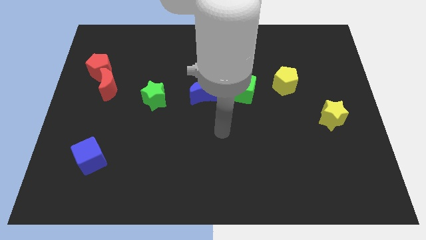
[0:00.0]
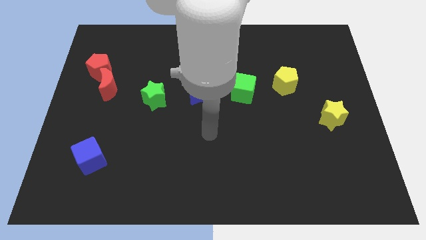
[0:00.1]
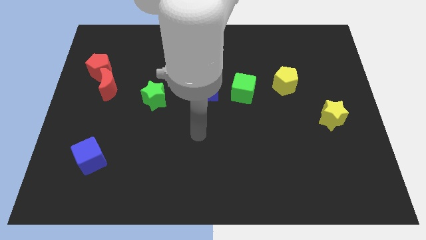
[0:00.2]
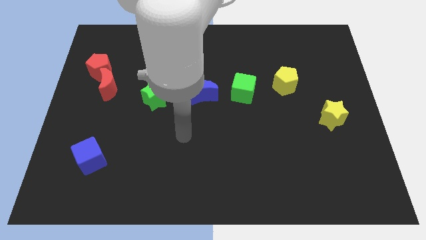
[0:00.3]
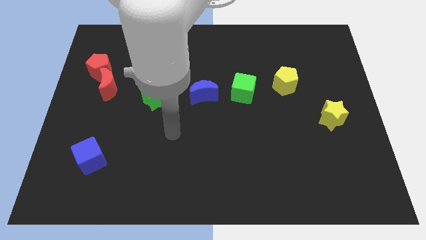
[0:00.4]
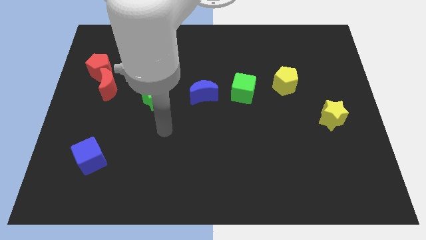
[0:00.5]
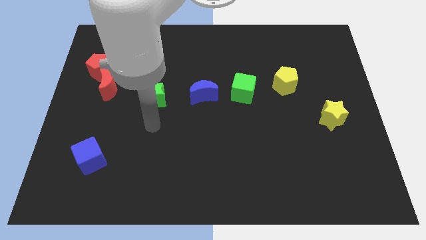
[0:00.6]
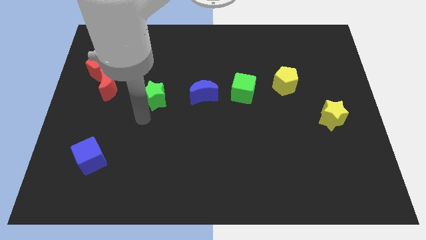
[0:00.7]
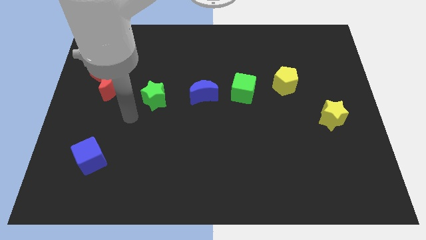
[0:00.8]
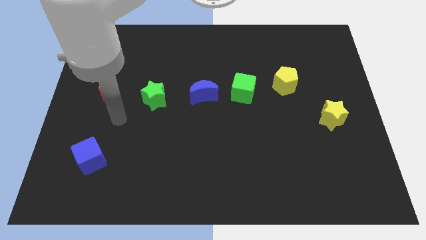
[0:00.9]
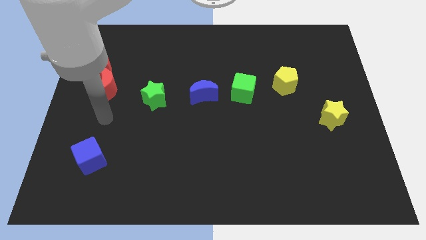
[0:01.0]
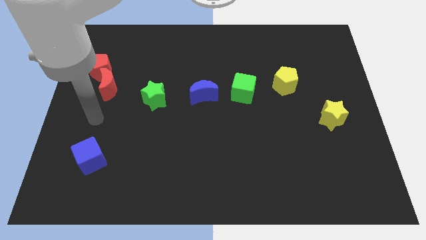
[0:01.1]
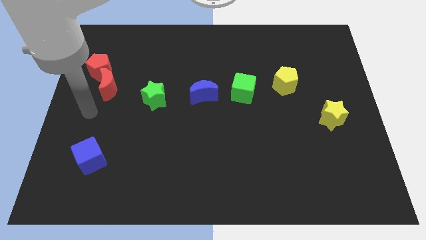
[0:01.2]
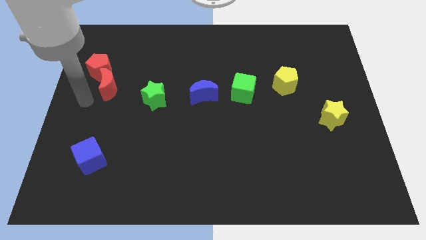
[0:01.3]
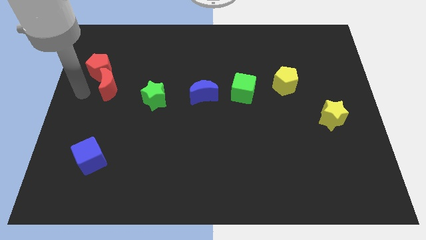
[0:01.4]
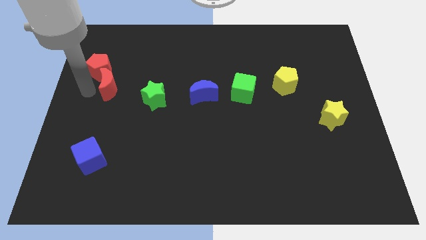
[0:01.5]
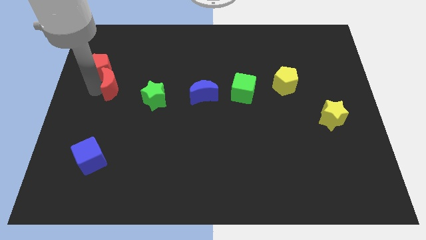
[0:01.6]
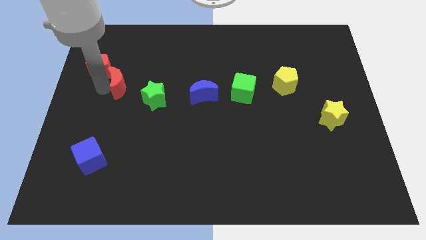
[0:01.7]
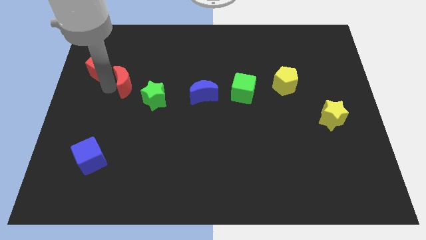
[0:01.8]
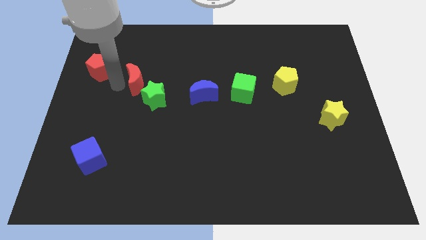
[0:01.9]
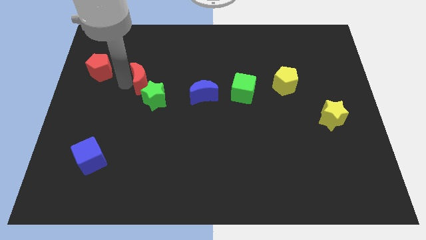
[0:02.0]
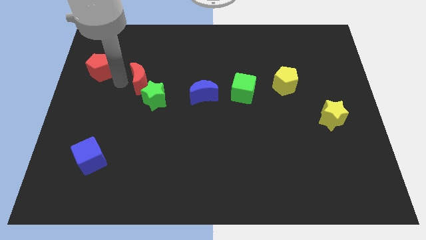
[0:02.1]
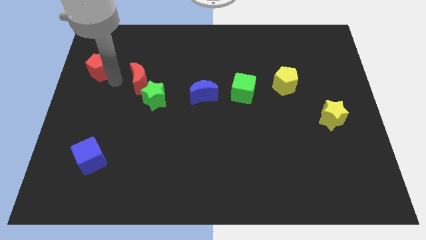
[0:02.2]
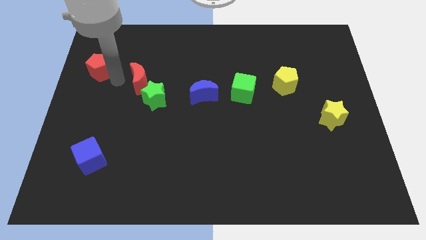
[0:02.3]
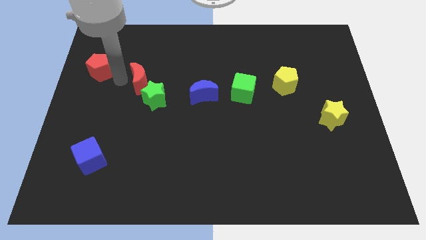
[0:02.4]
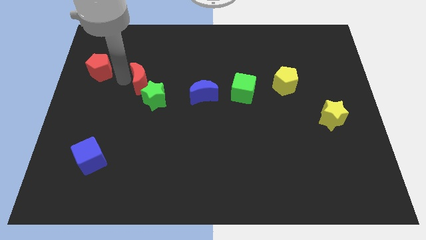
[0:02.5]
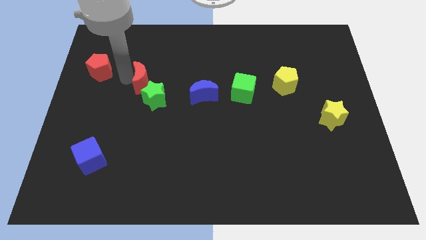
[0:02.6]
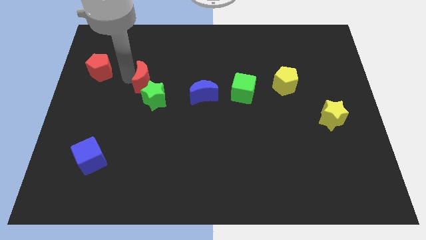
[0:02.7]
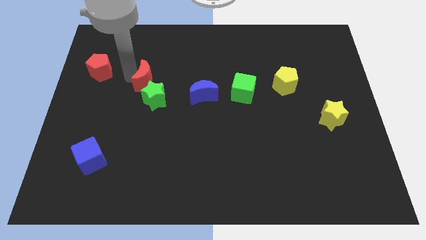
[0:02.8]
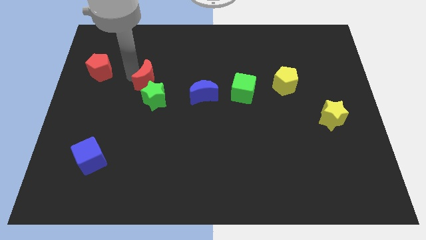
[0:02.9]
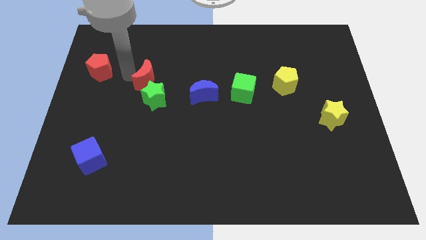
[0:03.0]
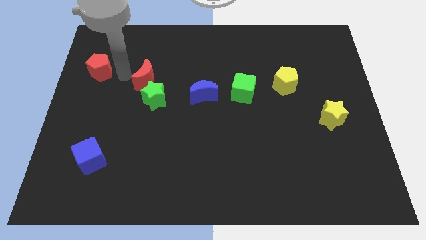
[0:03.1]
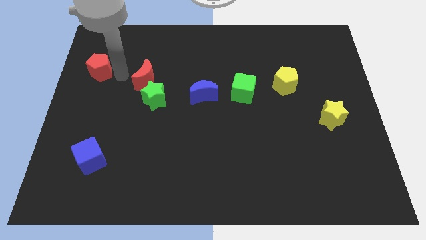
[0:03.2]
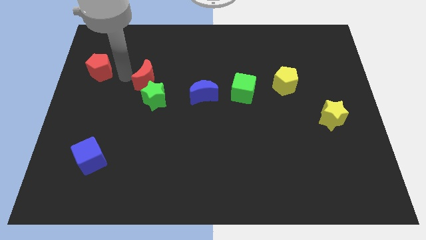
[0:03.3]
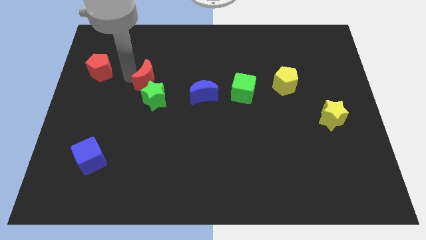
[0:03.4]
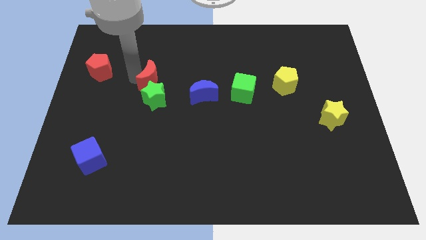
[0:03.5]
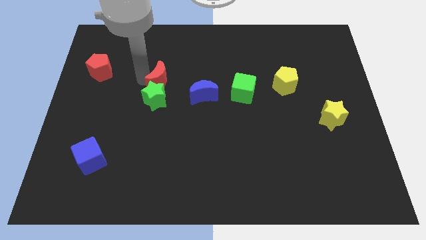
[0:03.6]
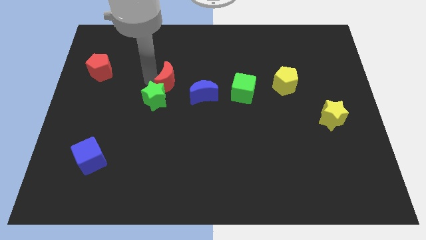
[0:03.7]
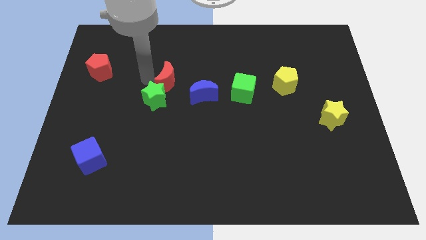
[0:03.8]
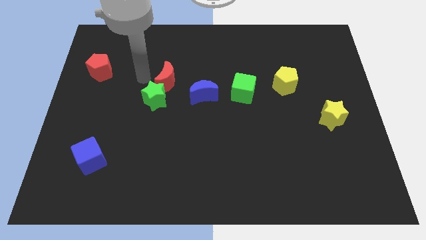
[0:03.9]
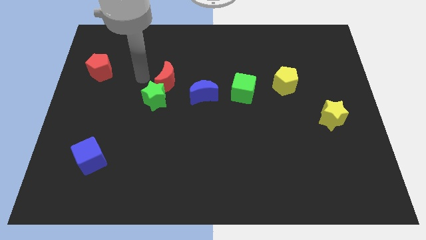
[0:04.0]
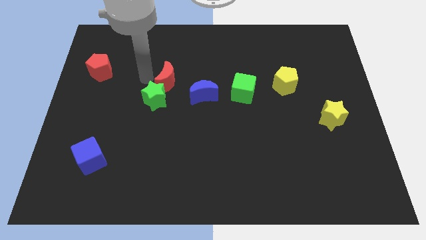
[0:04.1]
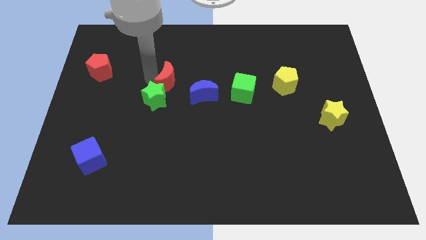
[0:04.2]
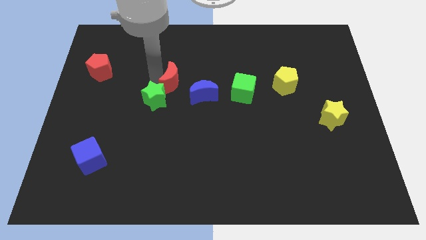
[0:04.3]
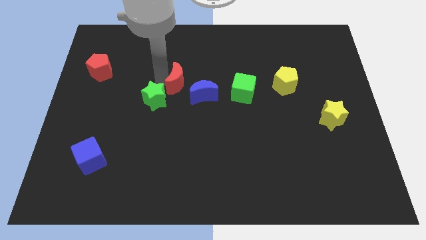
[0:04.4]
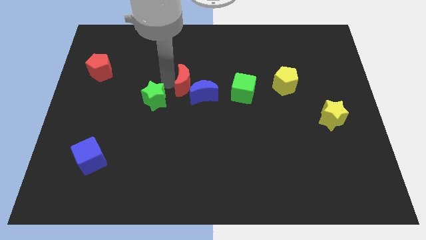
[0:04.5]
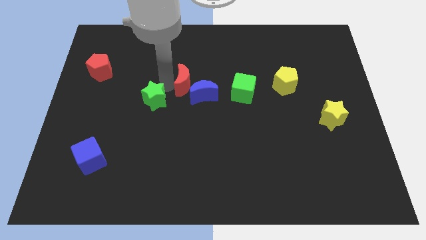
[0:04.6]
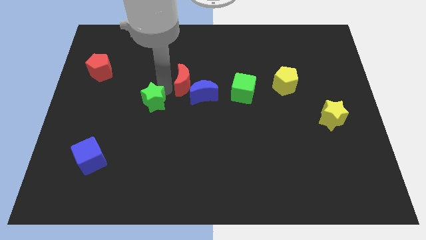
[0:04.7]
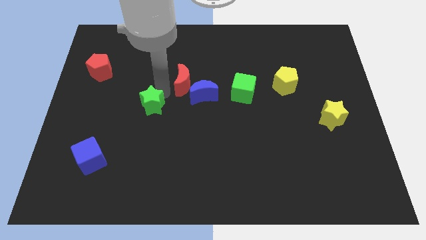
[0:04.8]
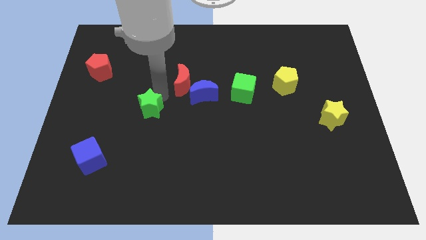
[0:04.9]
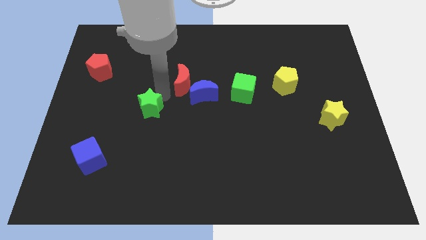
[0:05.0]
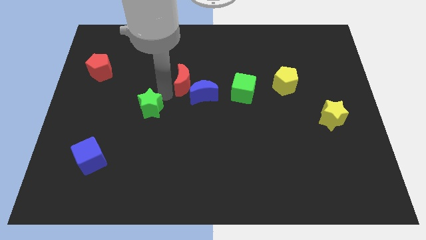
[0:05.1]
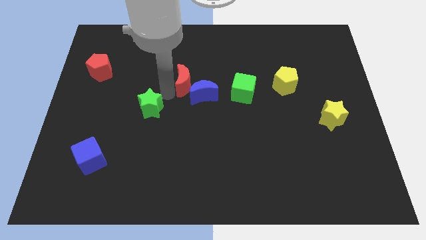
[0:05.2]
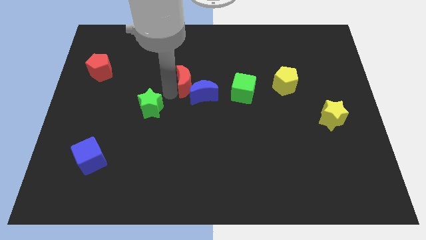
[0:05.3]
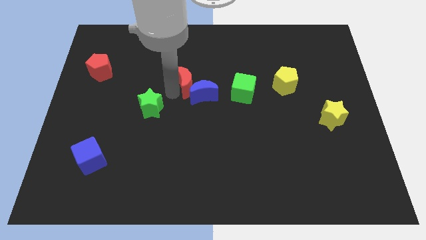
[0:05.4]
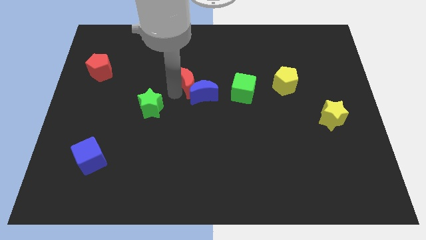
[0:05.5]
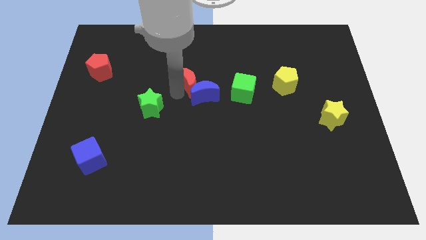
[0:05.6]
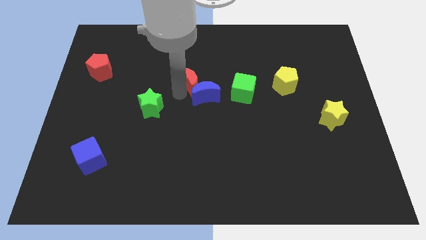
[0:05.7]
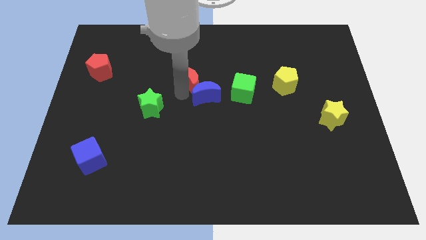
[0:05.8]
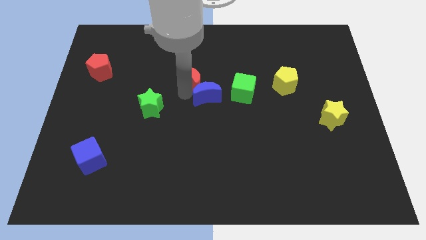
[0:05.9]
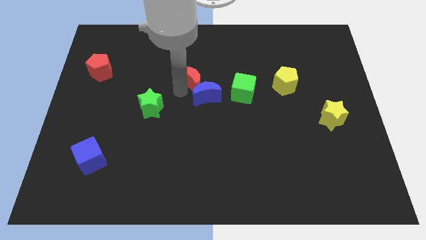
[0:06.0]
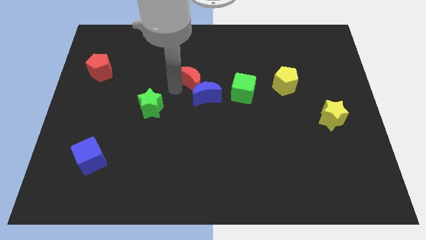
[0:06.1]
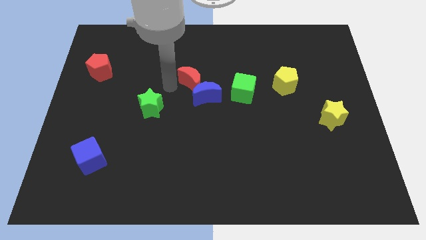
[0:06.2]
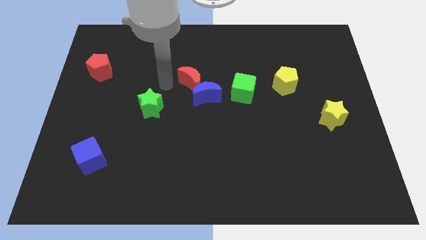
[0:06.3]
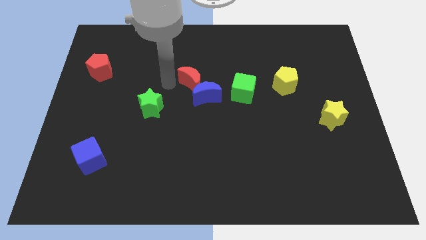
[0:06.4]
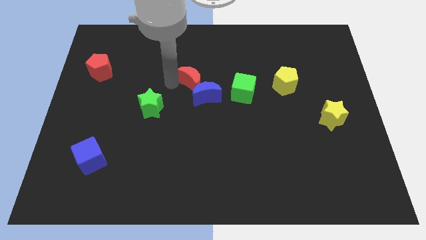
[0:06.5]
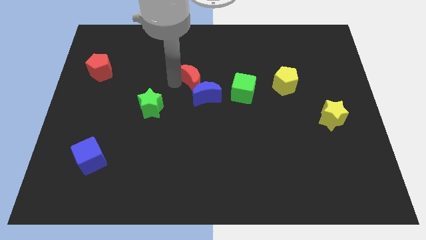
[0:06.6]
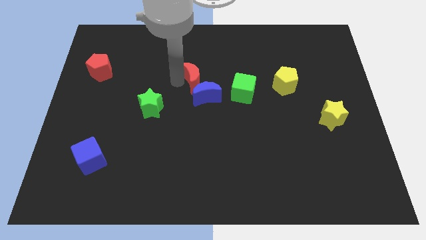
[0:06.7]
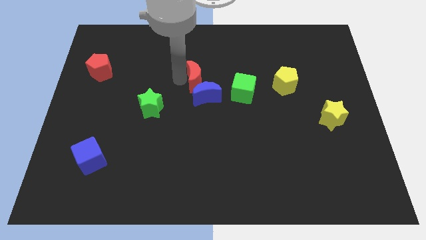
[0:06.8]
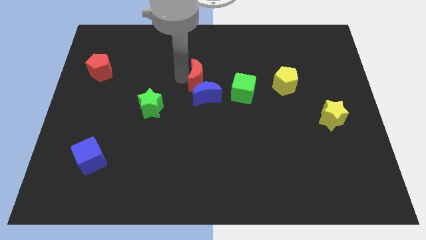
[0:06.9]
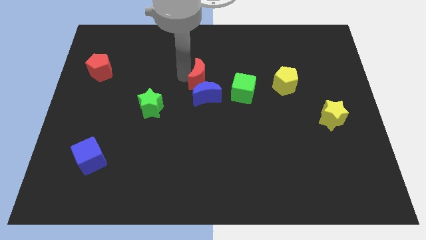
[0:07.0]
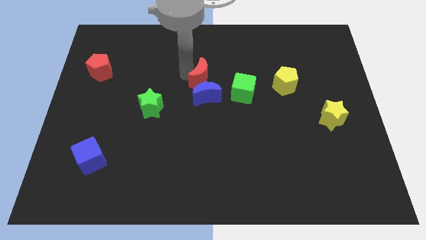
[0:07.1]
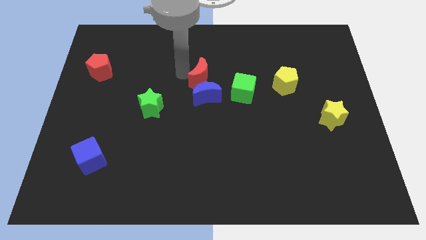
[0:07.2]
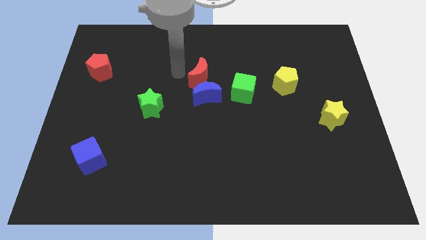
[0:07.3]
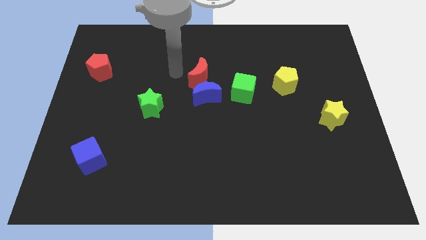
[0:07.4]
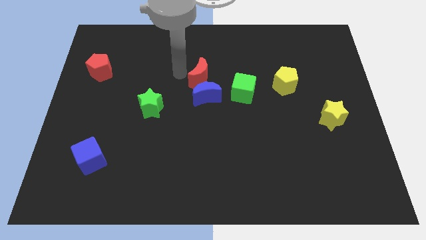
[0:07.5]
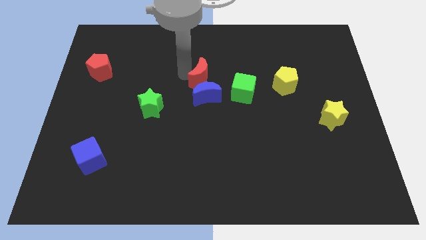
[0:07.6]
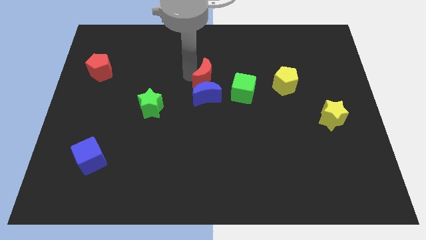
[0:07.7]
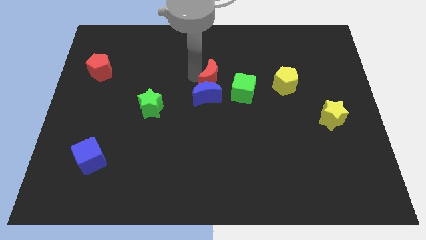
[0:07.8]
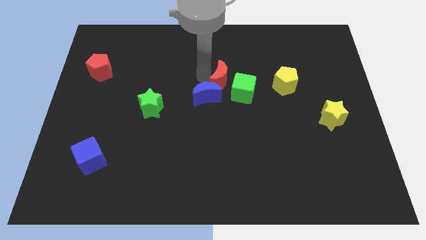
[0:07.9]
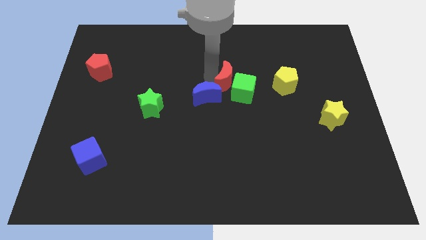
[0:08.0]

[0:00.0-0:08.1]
move the red moon towards the green cube
